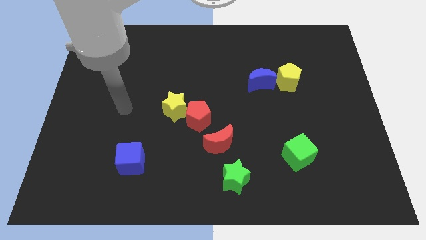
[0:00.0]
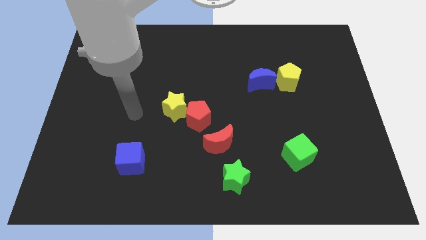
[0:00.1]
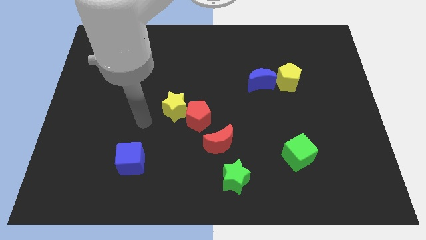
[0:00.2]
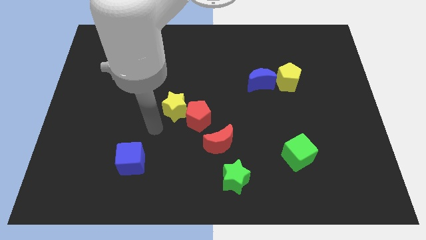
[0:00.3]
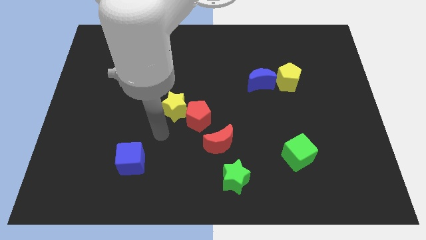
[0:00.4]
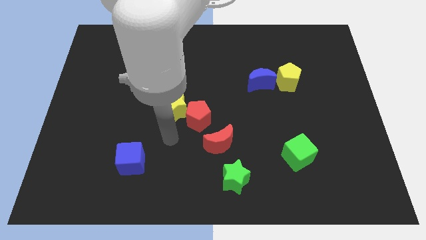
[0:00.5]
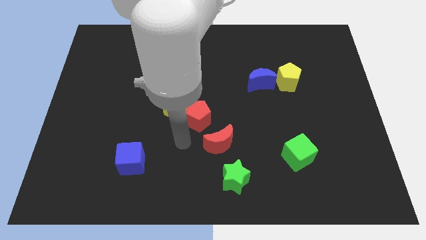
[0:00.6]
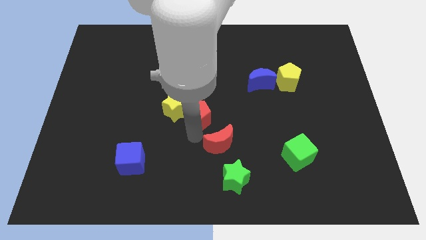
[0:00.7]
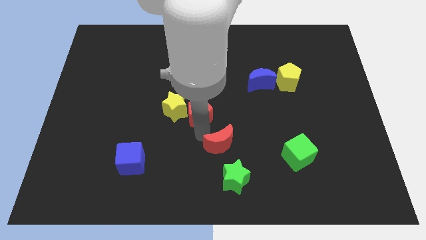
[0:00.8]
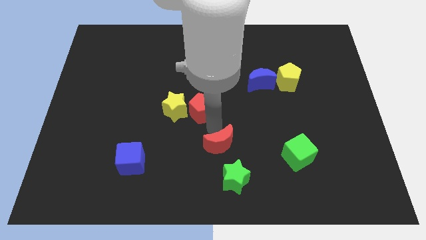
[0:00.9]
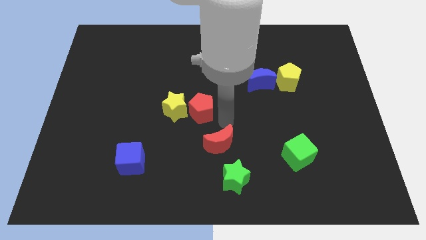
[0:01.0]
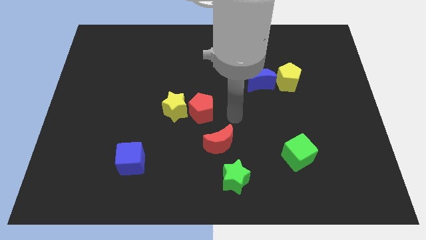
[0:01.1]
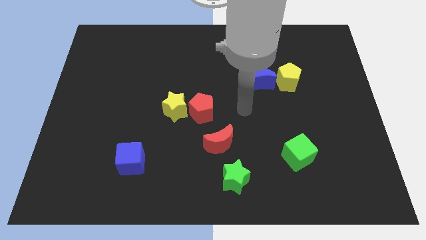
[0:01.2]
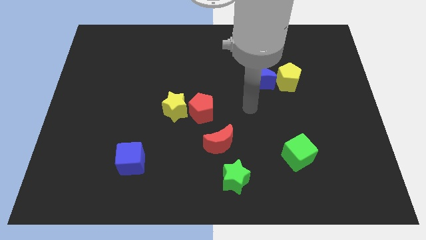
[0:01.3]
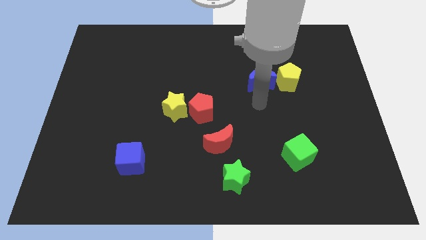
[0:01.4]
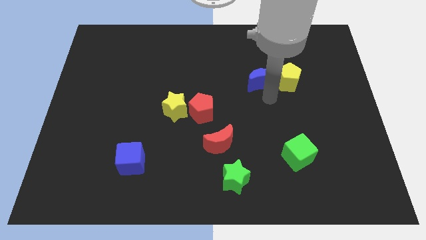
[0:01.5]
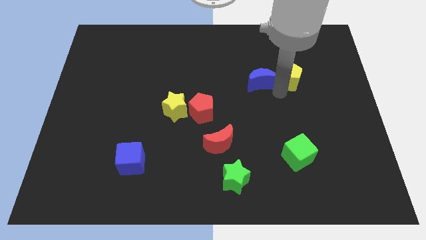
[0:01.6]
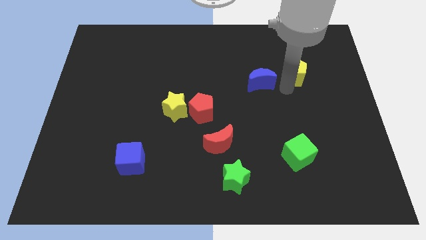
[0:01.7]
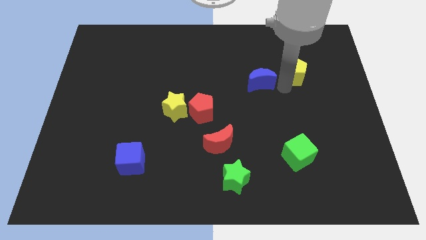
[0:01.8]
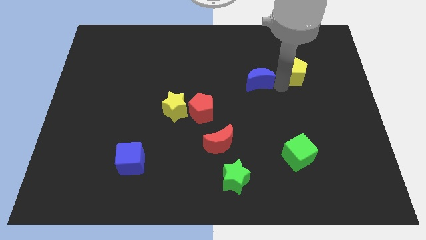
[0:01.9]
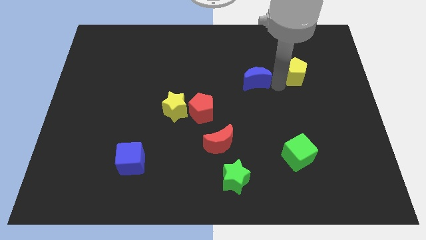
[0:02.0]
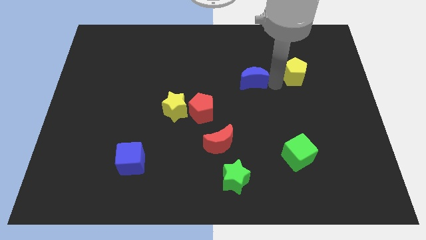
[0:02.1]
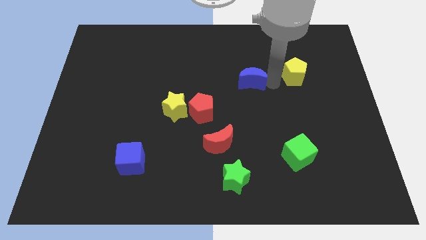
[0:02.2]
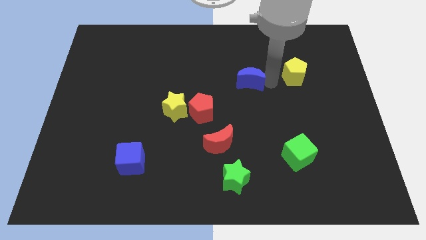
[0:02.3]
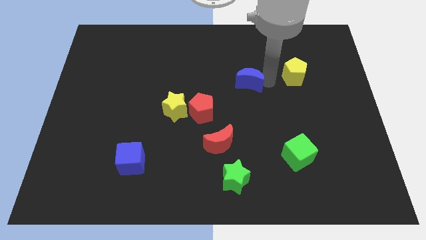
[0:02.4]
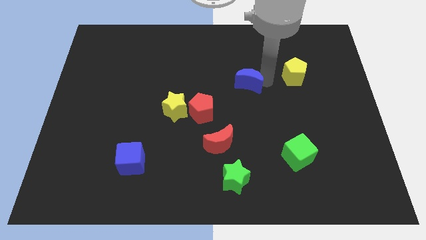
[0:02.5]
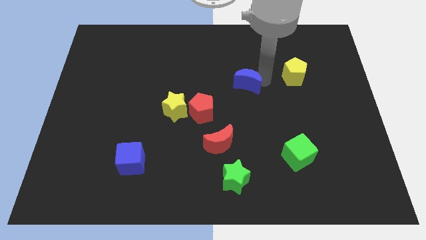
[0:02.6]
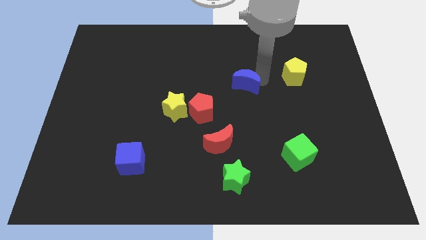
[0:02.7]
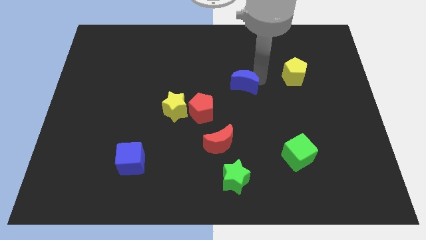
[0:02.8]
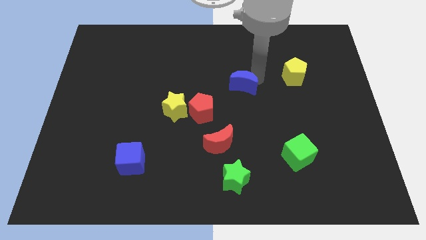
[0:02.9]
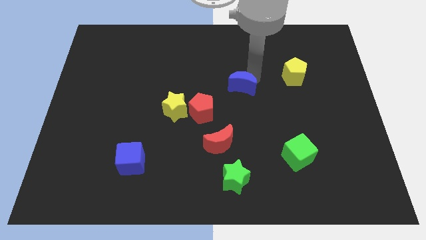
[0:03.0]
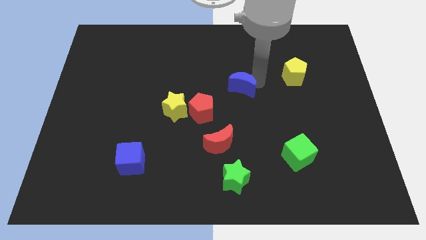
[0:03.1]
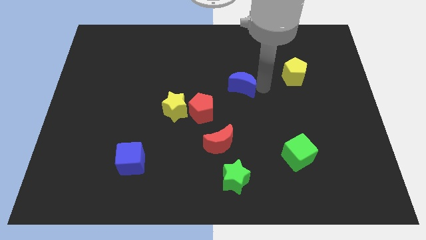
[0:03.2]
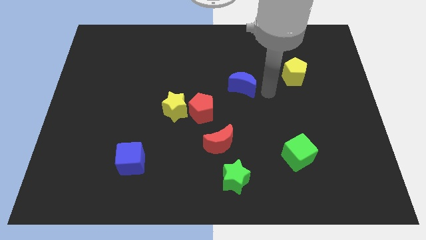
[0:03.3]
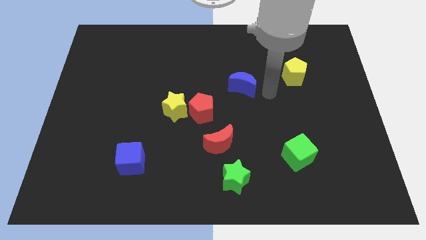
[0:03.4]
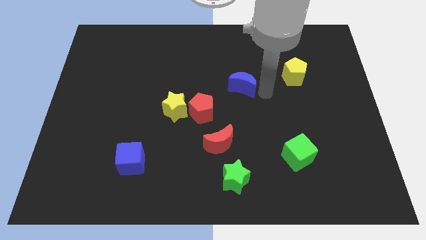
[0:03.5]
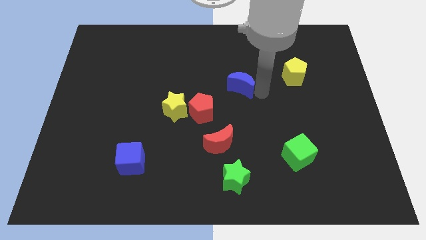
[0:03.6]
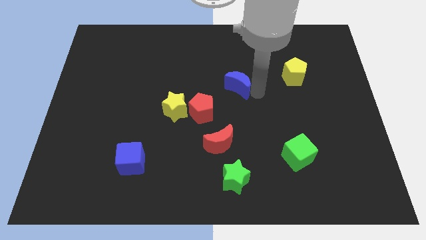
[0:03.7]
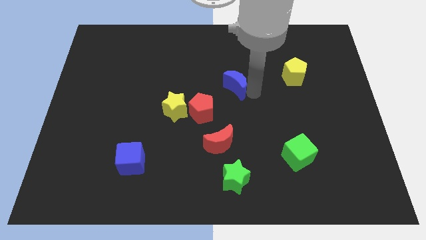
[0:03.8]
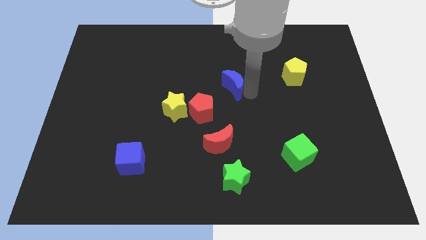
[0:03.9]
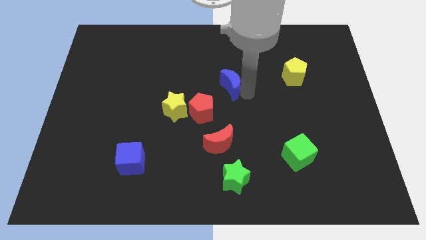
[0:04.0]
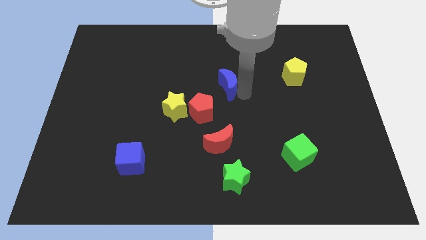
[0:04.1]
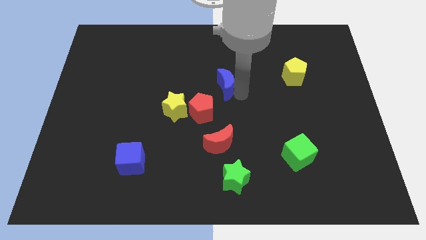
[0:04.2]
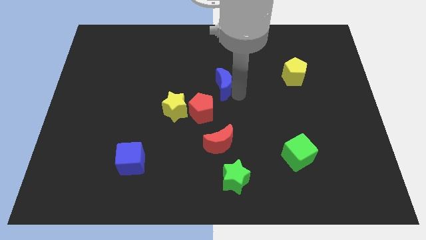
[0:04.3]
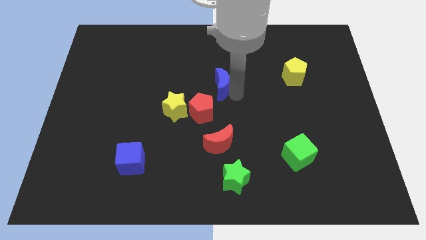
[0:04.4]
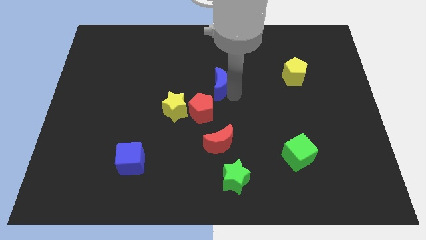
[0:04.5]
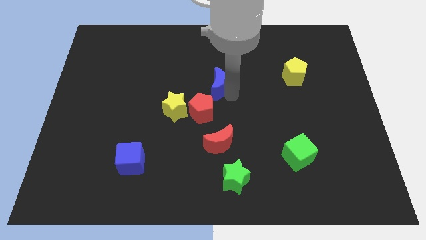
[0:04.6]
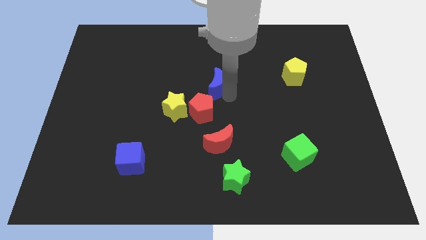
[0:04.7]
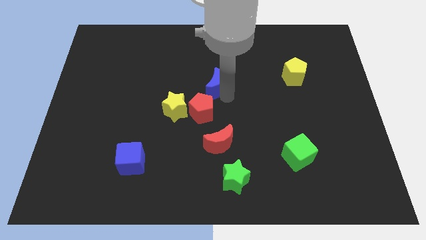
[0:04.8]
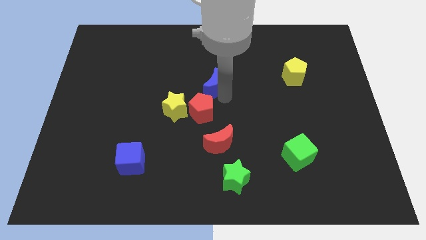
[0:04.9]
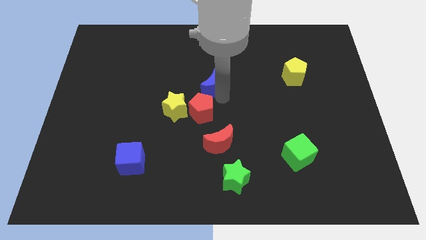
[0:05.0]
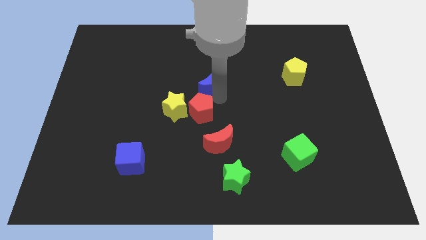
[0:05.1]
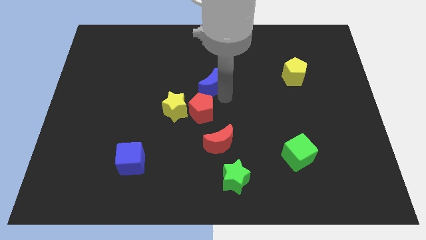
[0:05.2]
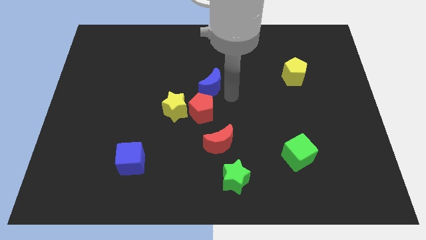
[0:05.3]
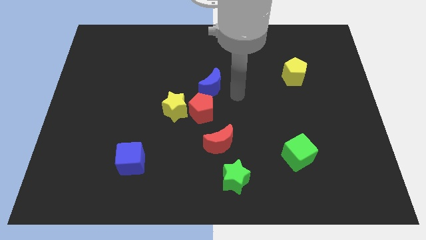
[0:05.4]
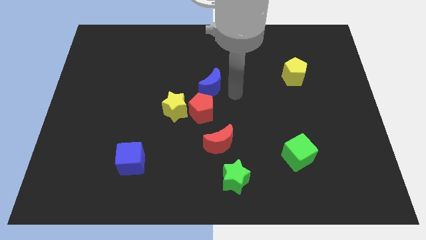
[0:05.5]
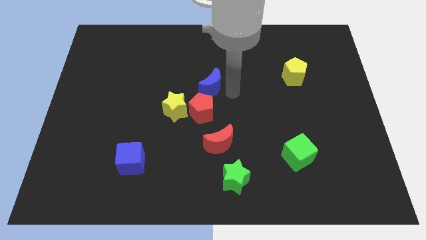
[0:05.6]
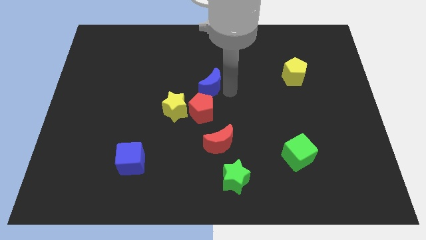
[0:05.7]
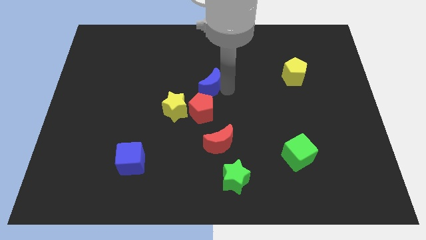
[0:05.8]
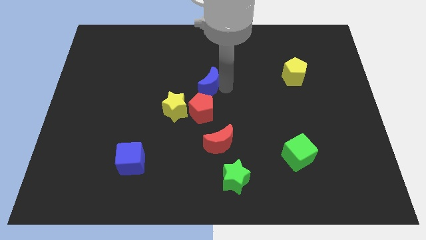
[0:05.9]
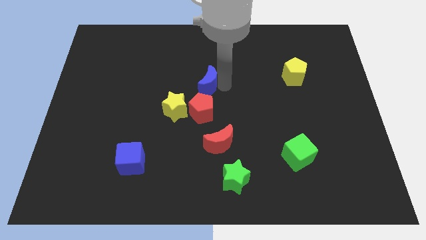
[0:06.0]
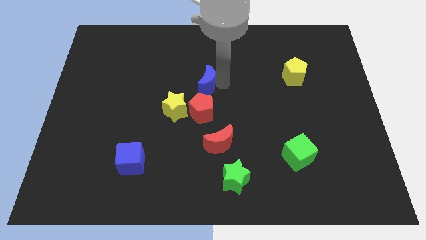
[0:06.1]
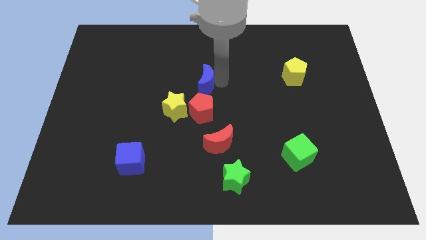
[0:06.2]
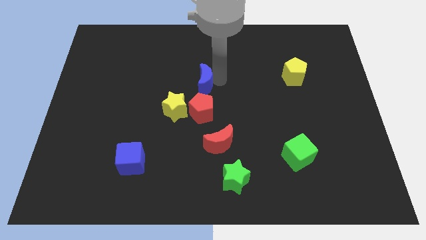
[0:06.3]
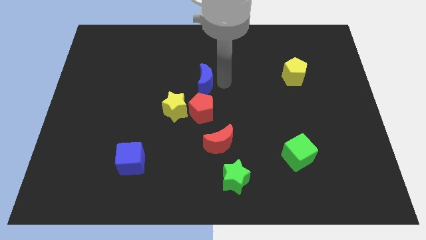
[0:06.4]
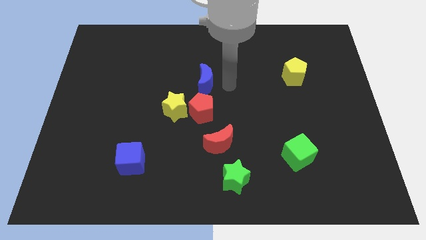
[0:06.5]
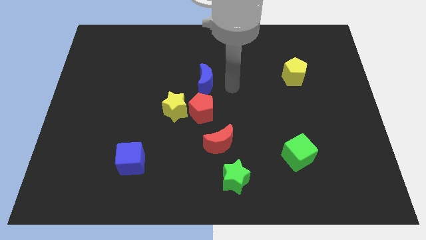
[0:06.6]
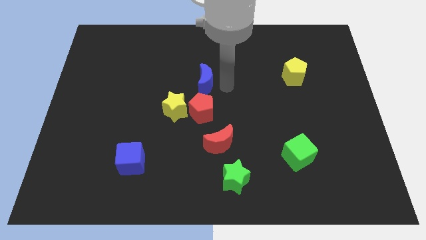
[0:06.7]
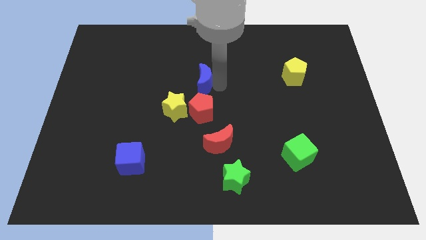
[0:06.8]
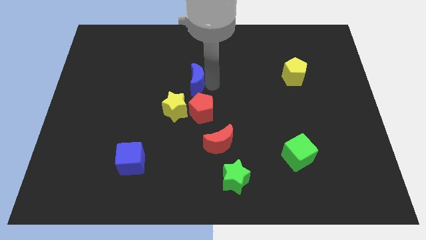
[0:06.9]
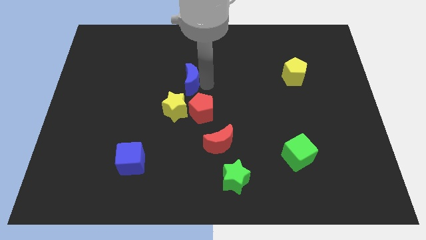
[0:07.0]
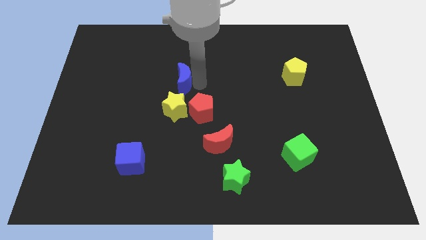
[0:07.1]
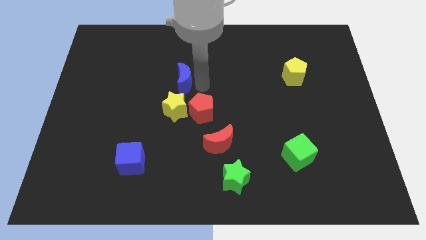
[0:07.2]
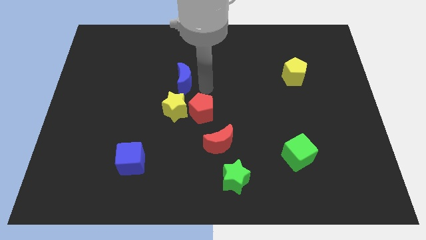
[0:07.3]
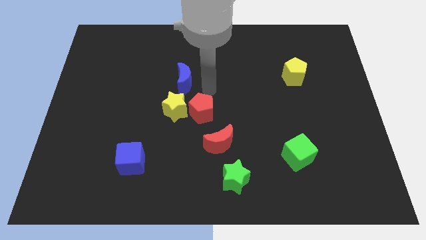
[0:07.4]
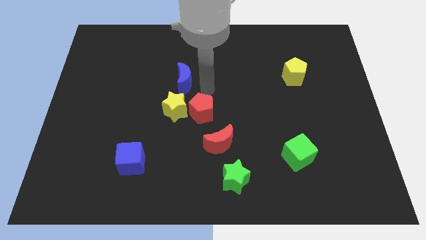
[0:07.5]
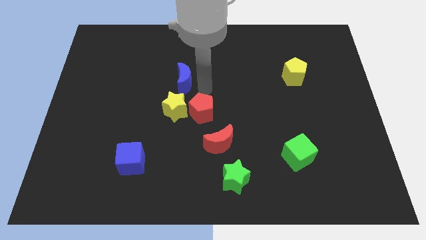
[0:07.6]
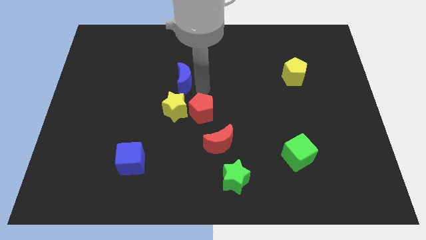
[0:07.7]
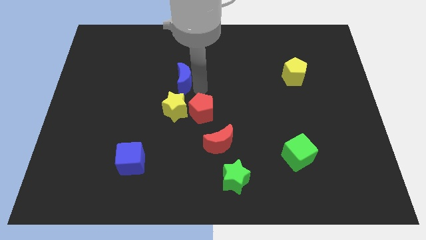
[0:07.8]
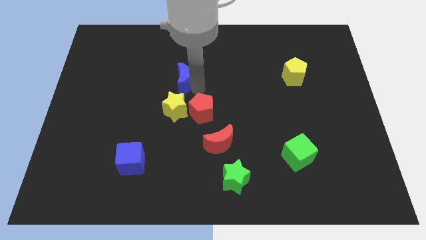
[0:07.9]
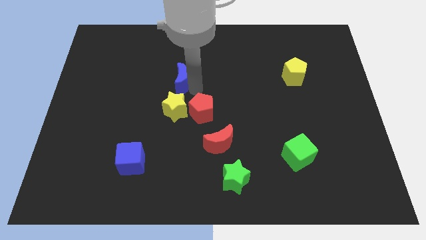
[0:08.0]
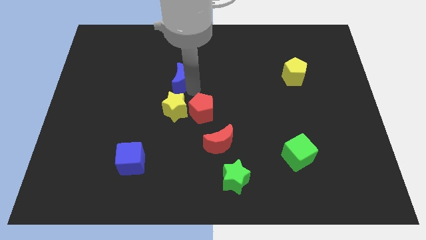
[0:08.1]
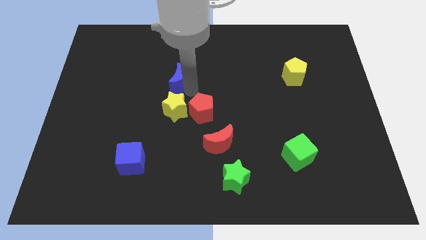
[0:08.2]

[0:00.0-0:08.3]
move the blue moon to the left
